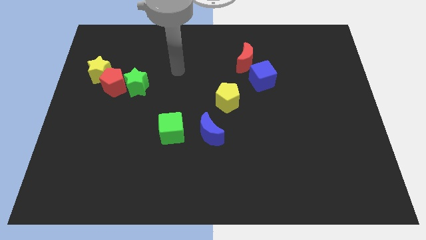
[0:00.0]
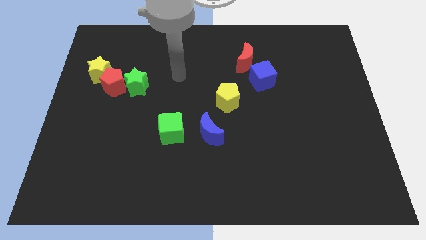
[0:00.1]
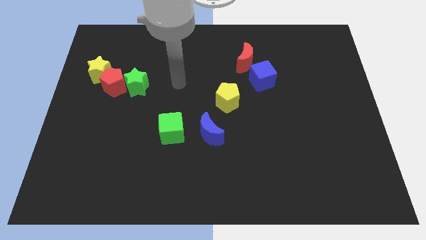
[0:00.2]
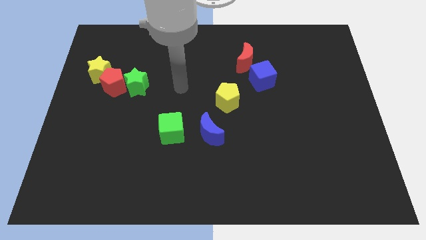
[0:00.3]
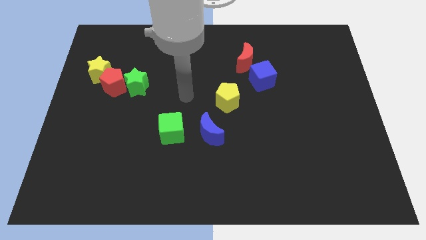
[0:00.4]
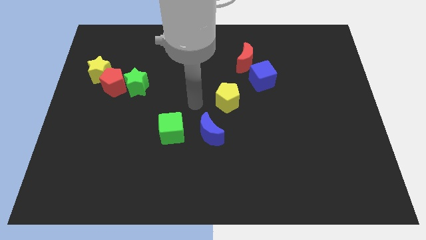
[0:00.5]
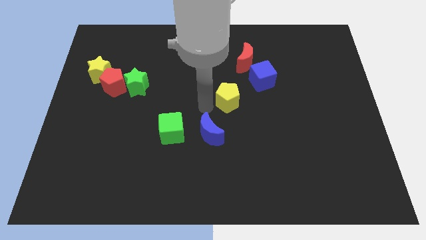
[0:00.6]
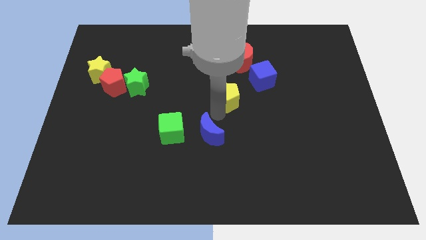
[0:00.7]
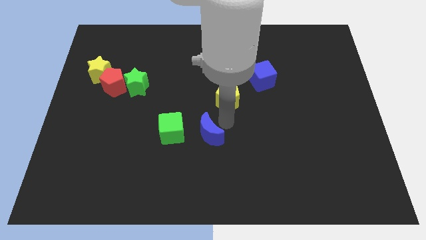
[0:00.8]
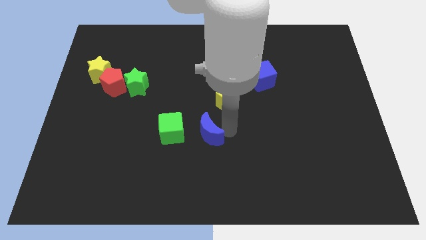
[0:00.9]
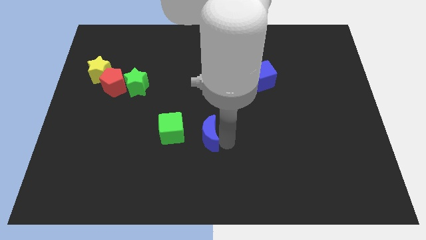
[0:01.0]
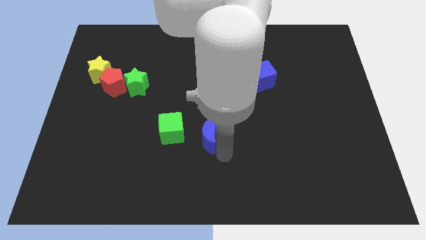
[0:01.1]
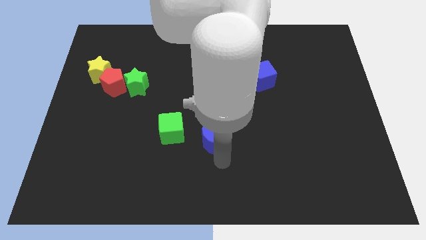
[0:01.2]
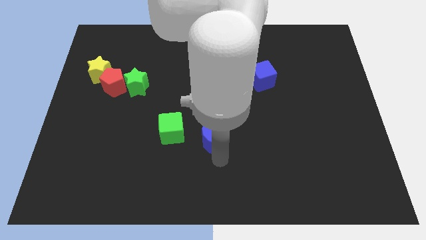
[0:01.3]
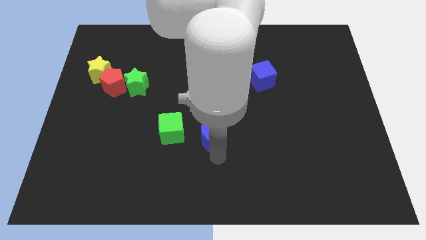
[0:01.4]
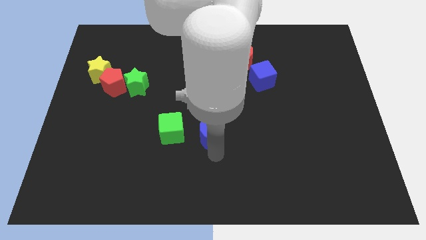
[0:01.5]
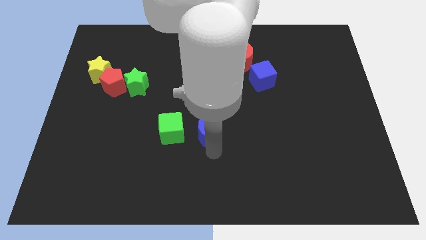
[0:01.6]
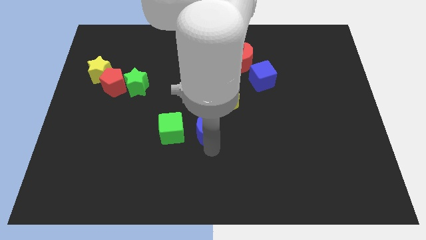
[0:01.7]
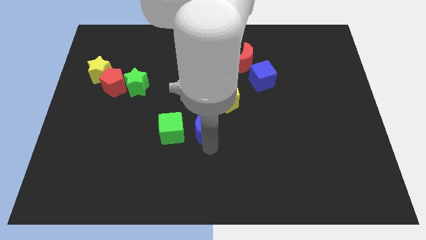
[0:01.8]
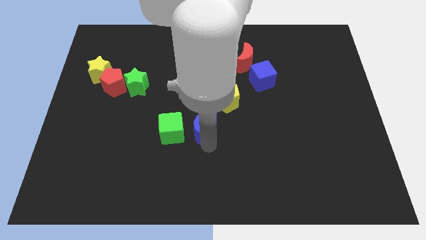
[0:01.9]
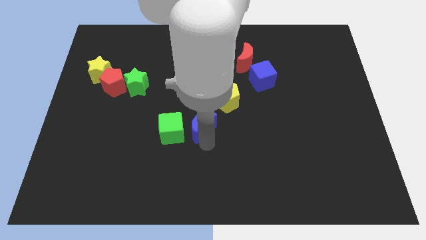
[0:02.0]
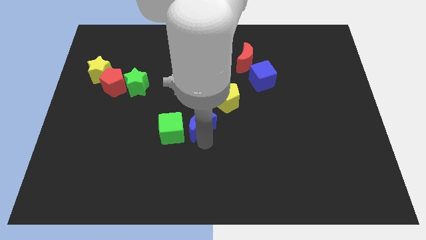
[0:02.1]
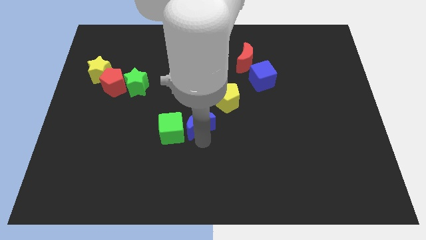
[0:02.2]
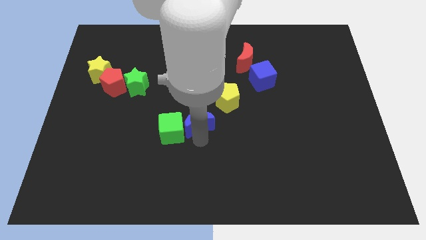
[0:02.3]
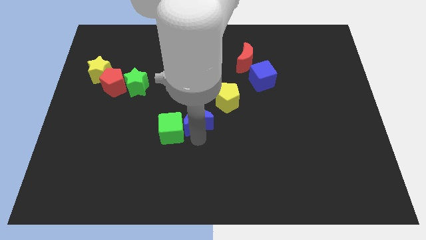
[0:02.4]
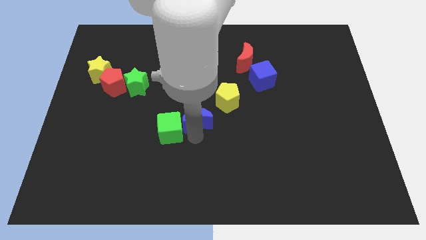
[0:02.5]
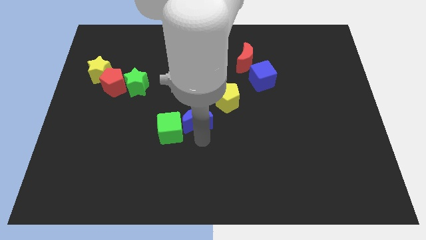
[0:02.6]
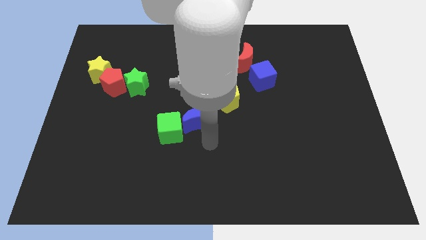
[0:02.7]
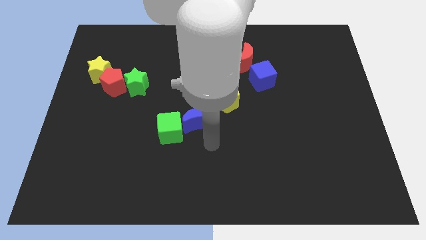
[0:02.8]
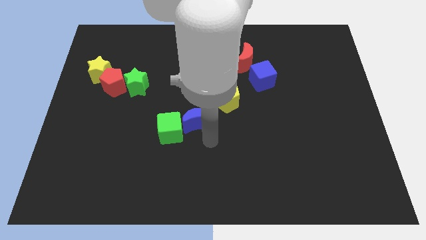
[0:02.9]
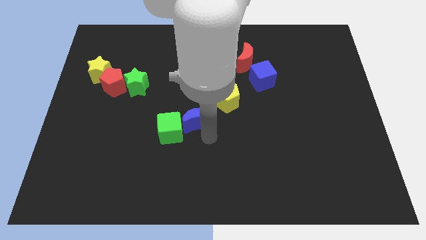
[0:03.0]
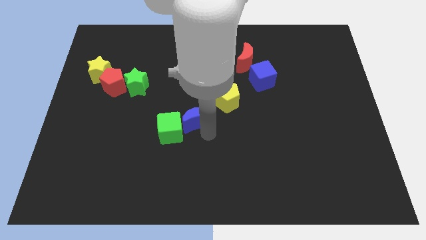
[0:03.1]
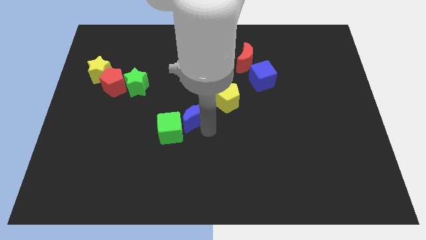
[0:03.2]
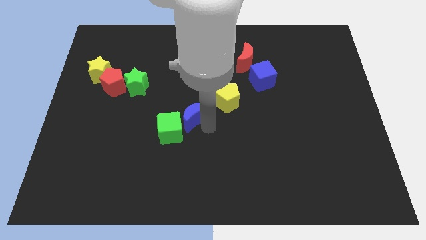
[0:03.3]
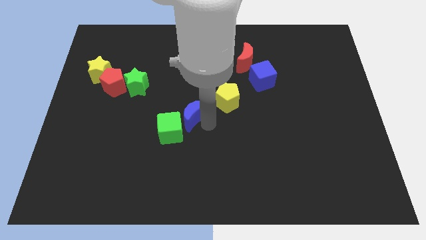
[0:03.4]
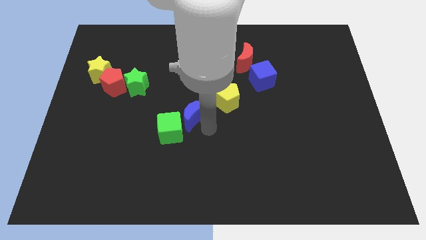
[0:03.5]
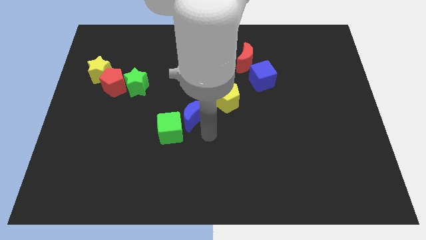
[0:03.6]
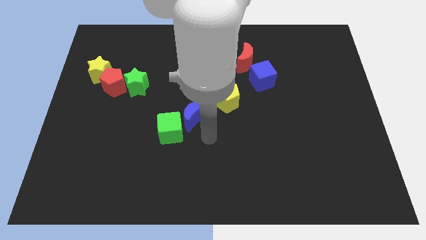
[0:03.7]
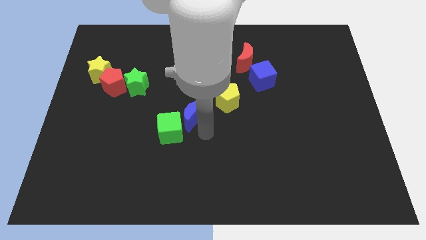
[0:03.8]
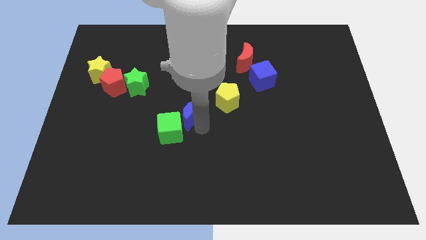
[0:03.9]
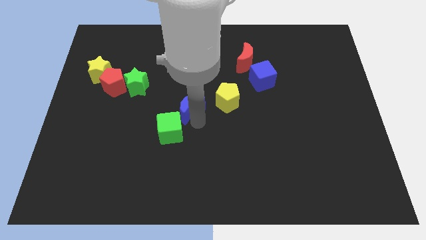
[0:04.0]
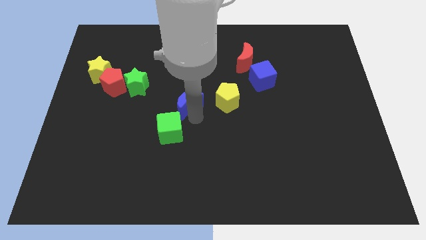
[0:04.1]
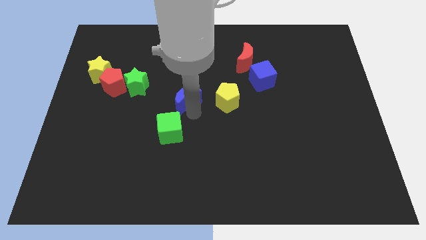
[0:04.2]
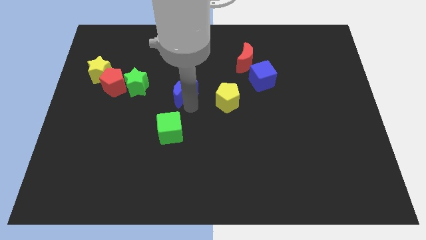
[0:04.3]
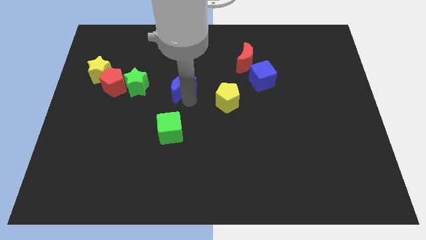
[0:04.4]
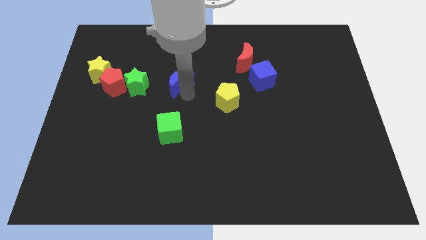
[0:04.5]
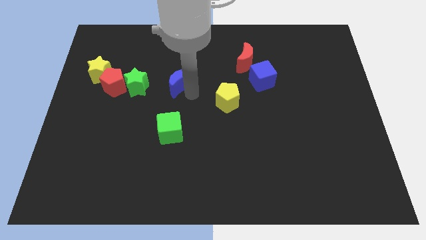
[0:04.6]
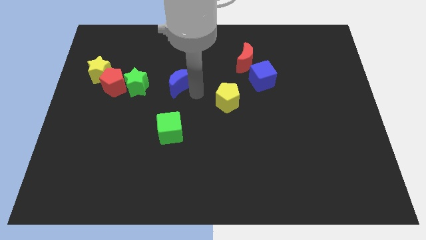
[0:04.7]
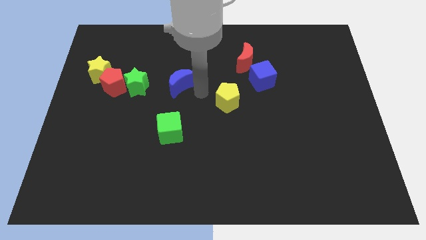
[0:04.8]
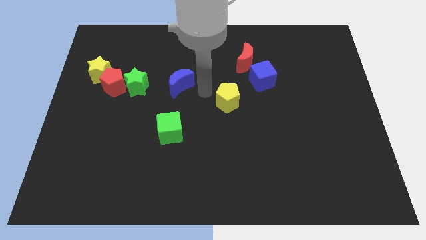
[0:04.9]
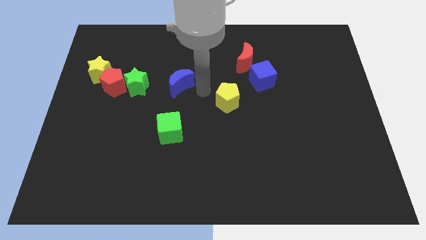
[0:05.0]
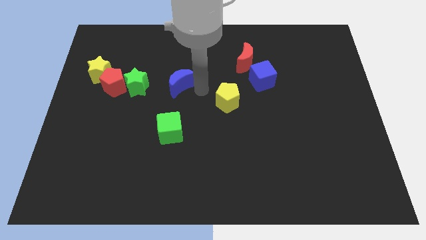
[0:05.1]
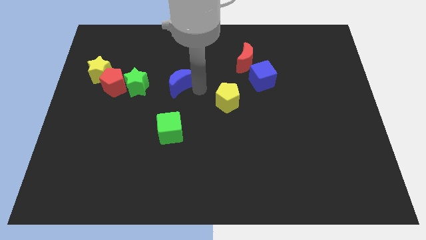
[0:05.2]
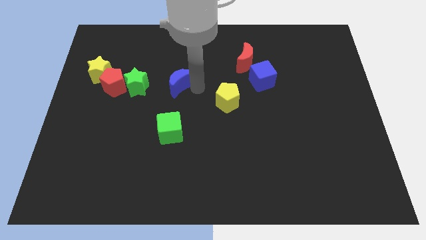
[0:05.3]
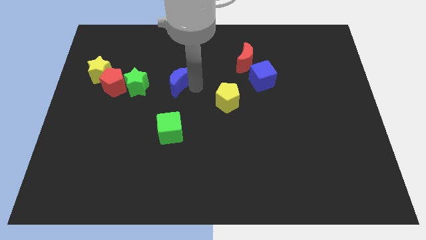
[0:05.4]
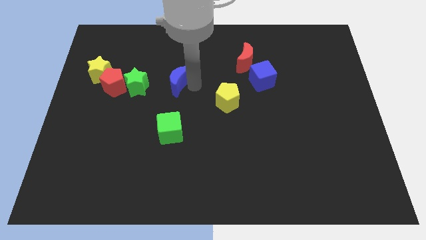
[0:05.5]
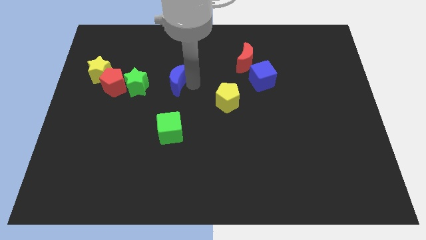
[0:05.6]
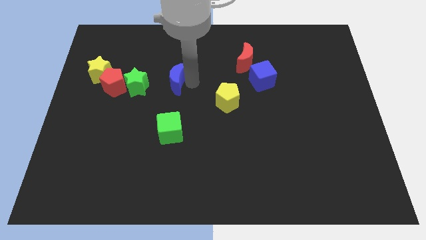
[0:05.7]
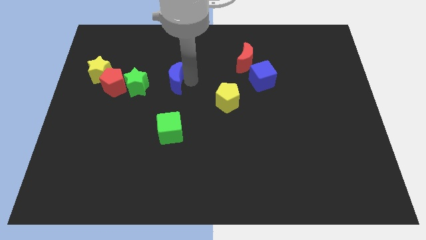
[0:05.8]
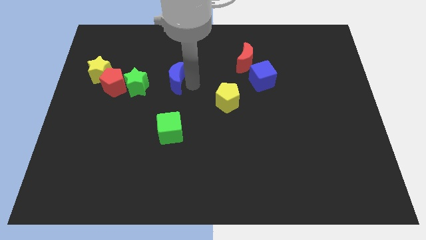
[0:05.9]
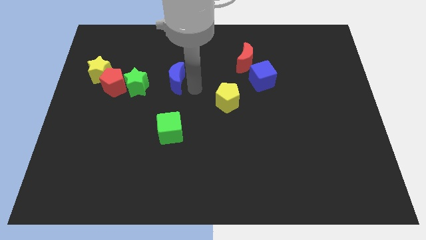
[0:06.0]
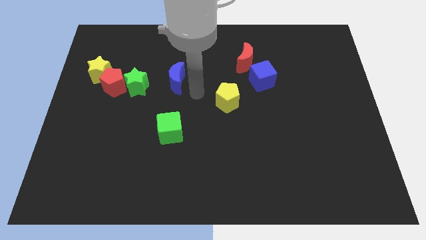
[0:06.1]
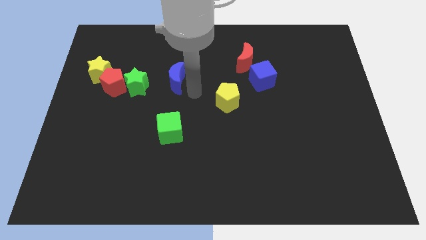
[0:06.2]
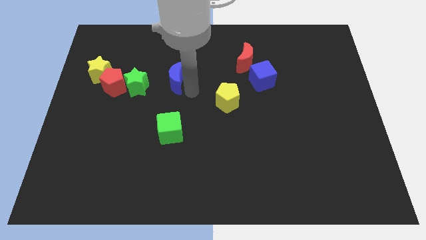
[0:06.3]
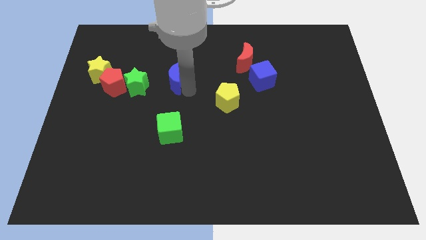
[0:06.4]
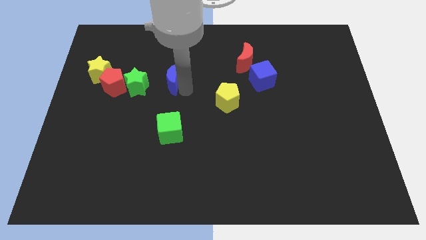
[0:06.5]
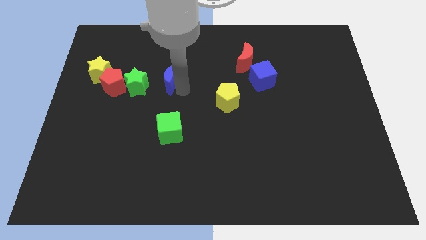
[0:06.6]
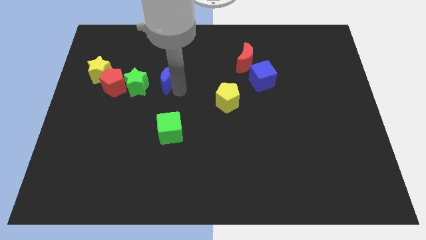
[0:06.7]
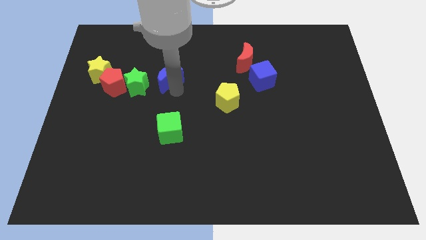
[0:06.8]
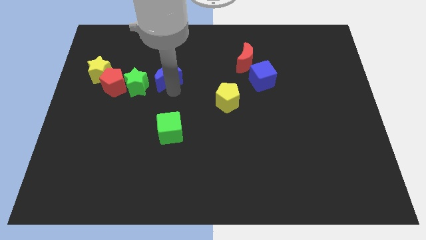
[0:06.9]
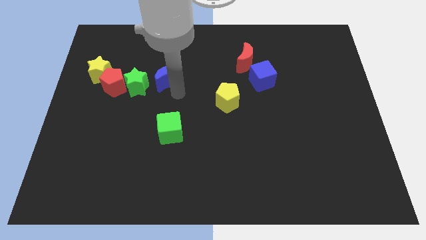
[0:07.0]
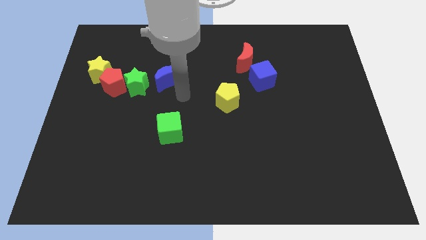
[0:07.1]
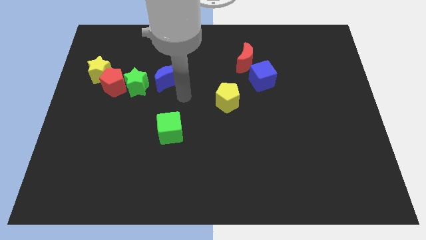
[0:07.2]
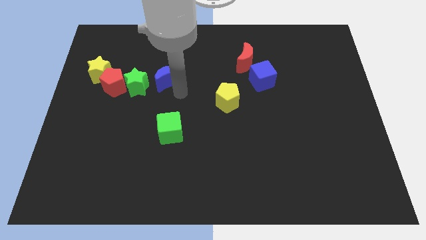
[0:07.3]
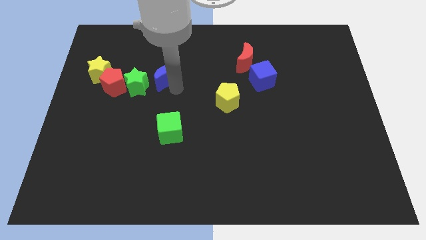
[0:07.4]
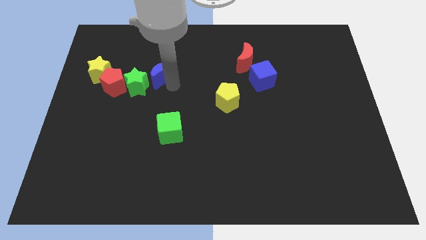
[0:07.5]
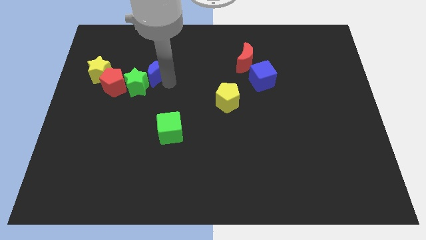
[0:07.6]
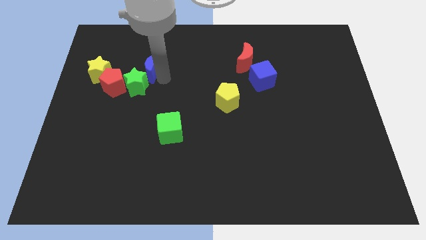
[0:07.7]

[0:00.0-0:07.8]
push the blue moon to the top side of the green star
